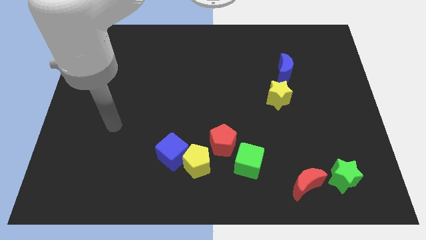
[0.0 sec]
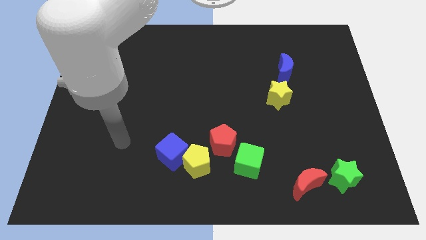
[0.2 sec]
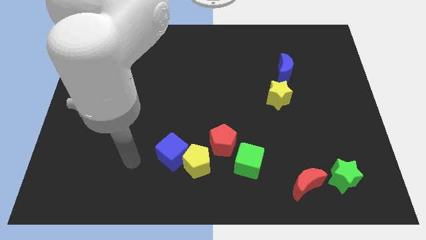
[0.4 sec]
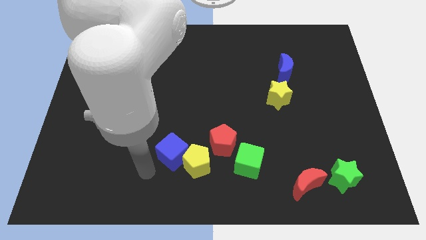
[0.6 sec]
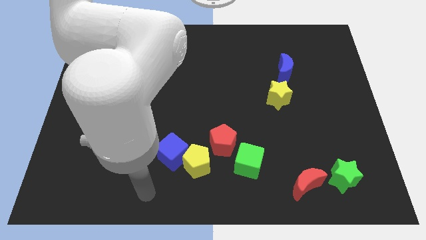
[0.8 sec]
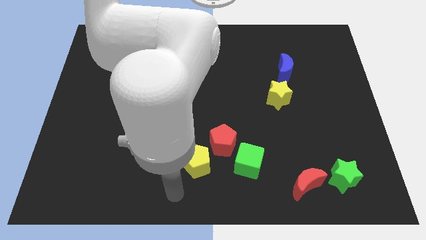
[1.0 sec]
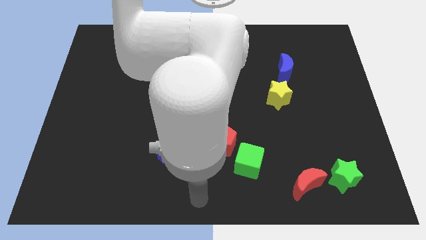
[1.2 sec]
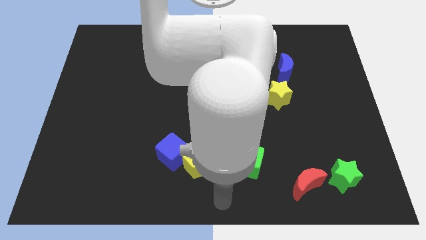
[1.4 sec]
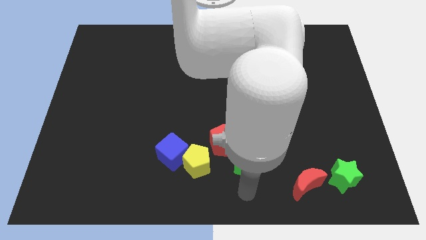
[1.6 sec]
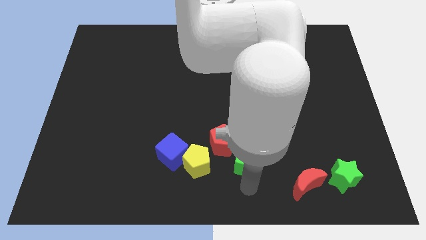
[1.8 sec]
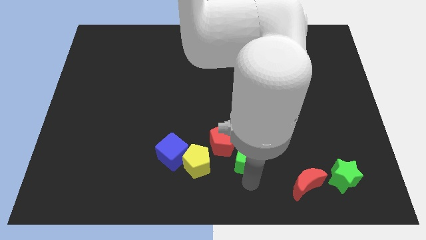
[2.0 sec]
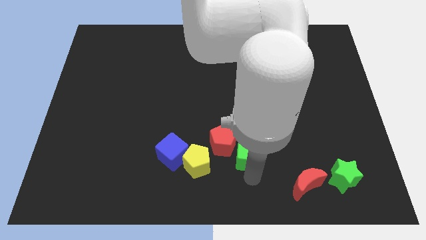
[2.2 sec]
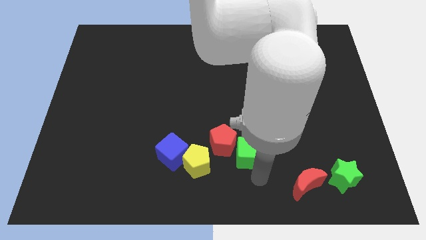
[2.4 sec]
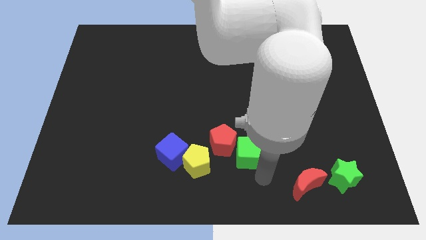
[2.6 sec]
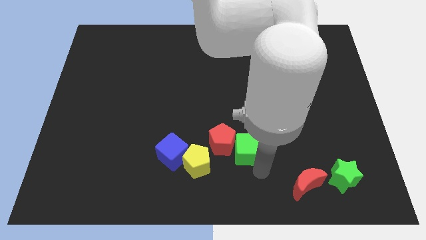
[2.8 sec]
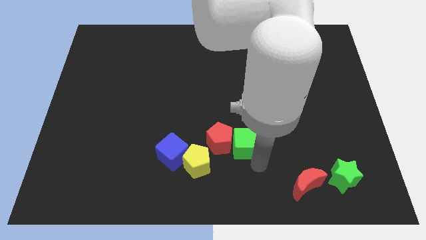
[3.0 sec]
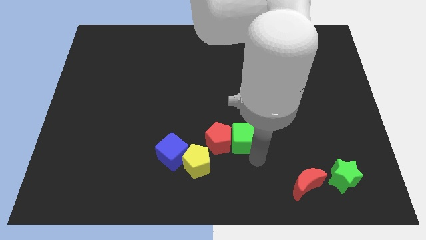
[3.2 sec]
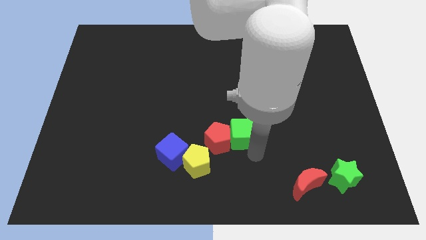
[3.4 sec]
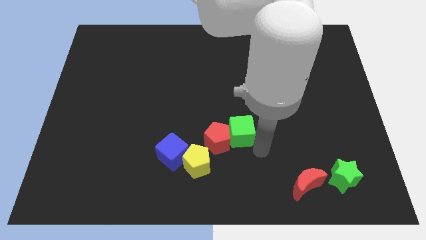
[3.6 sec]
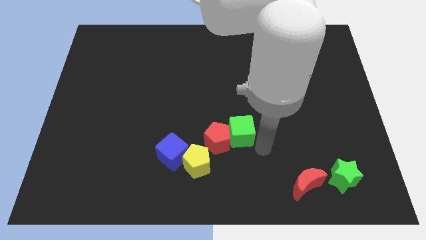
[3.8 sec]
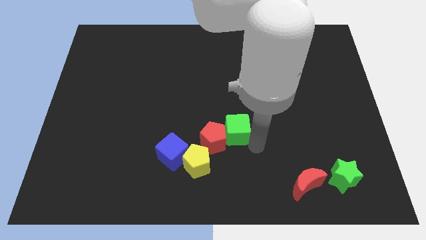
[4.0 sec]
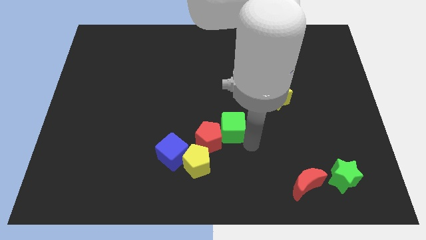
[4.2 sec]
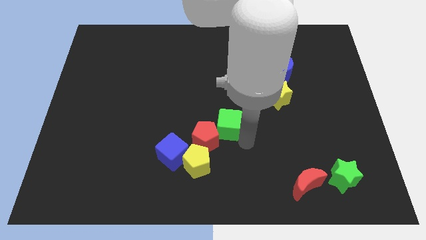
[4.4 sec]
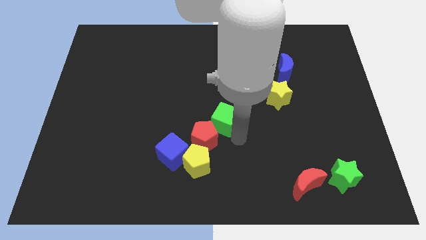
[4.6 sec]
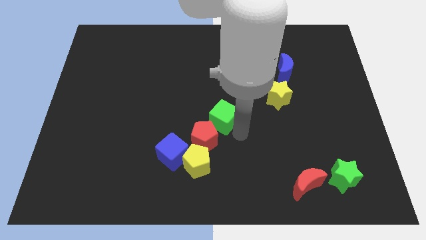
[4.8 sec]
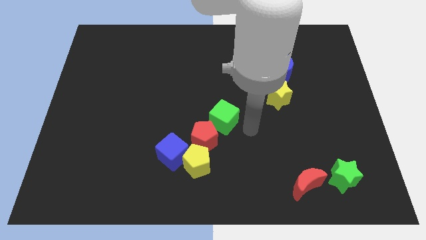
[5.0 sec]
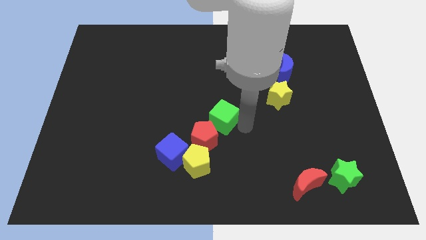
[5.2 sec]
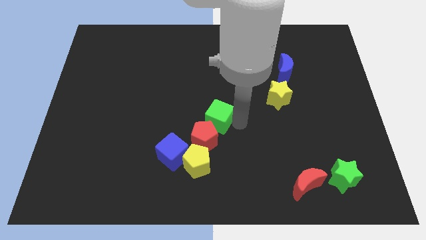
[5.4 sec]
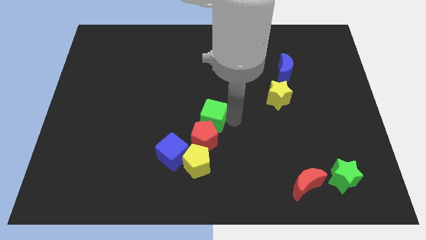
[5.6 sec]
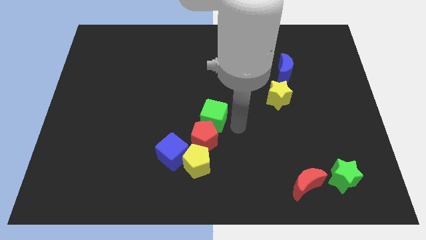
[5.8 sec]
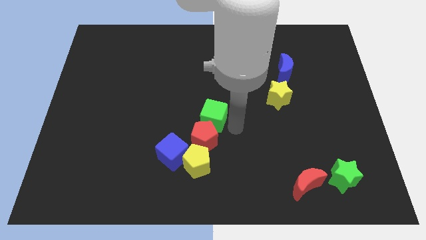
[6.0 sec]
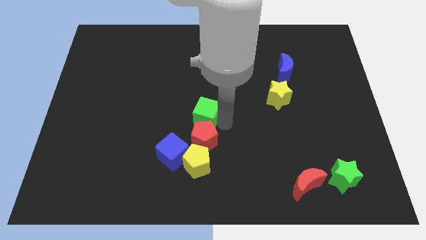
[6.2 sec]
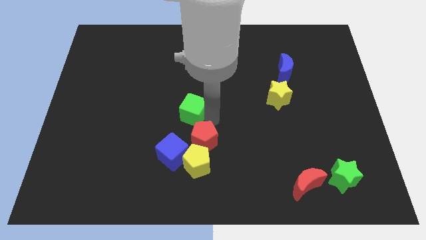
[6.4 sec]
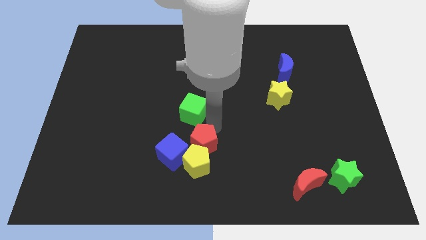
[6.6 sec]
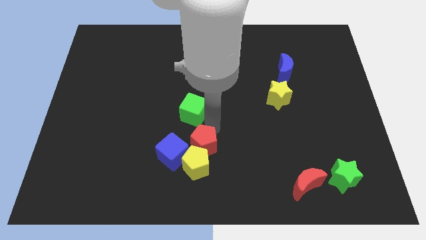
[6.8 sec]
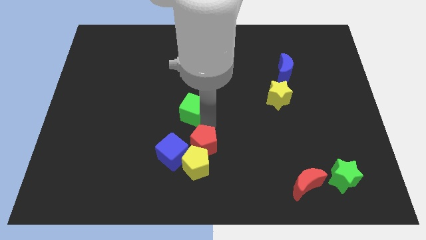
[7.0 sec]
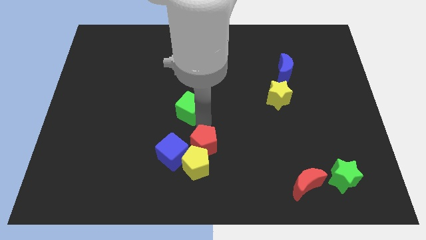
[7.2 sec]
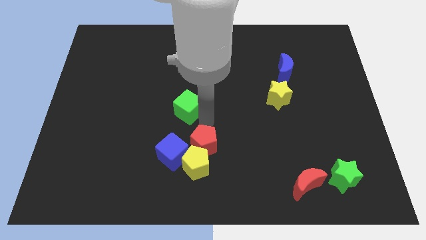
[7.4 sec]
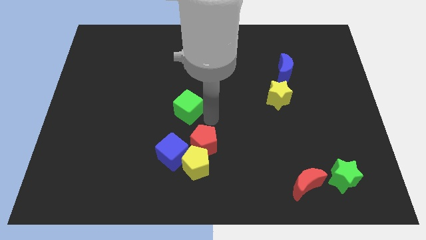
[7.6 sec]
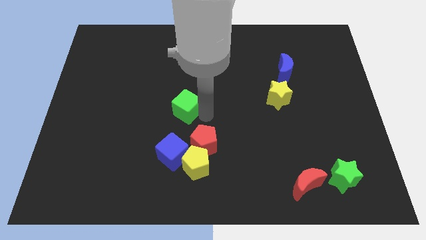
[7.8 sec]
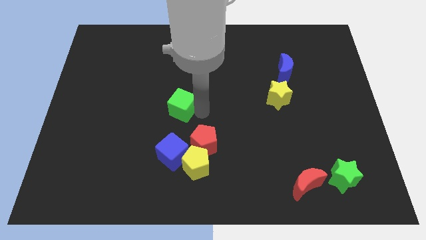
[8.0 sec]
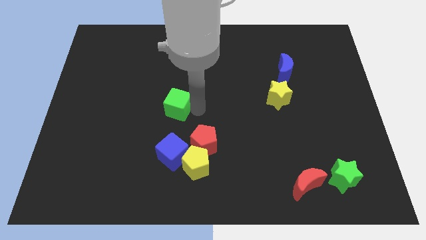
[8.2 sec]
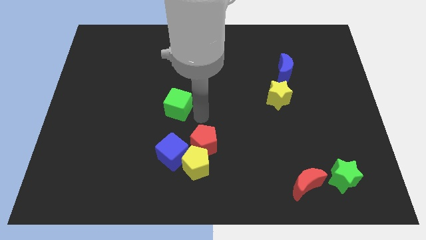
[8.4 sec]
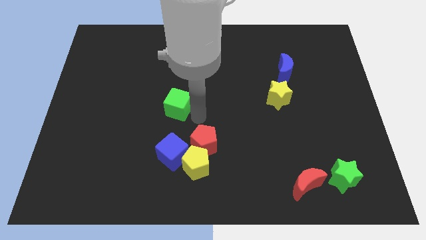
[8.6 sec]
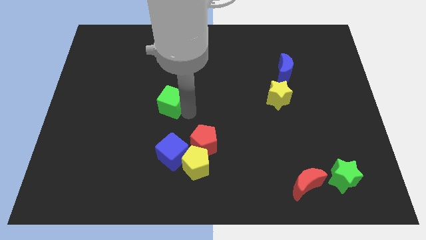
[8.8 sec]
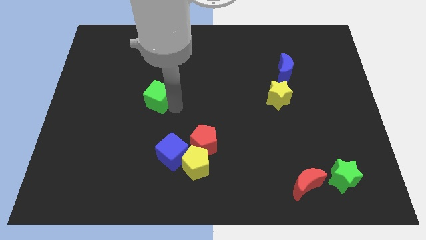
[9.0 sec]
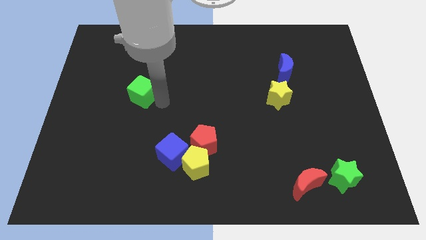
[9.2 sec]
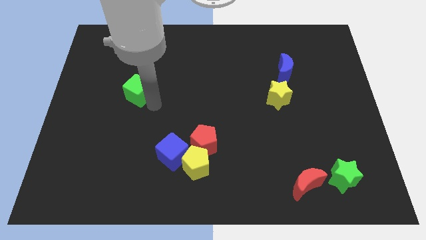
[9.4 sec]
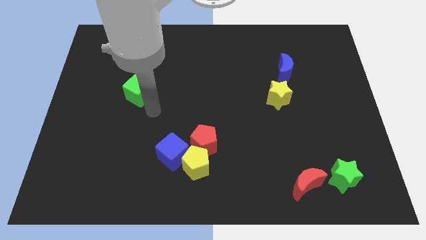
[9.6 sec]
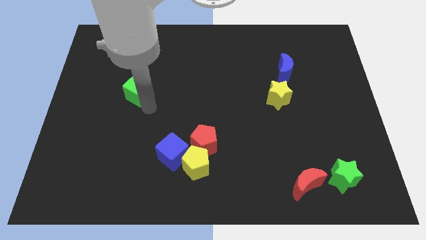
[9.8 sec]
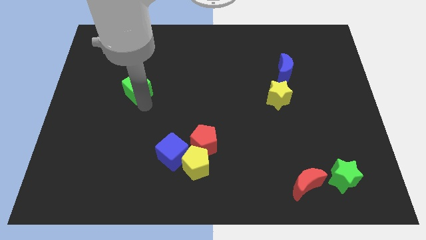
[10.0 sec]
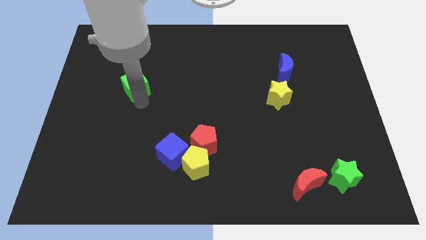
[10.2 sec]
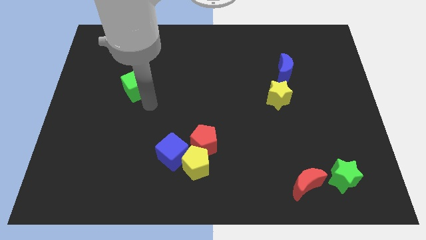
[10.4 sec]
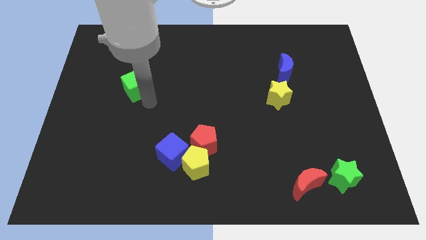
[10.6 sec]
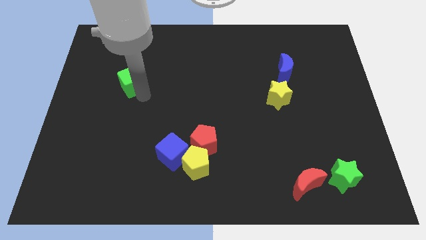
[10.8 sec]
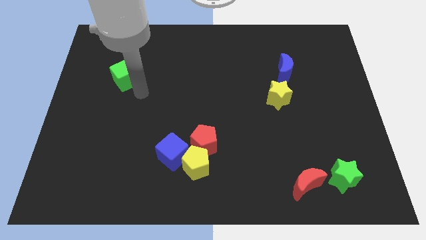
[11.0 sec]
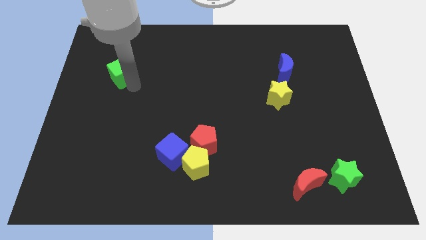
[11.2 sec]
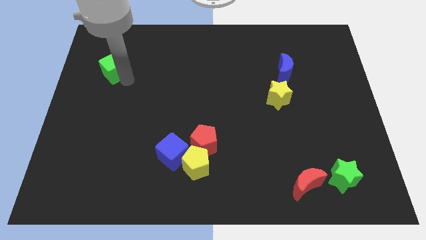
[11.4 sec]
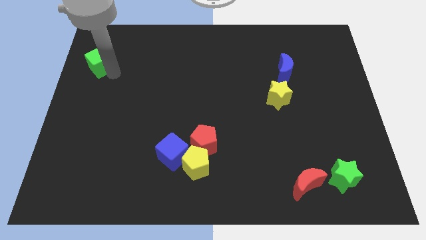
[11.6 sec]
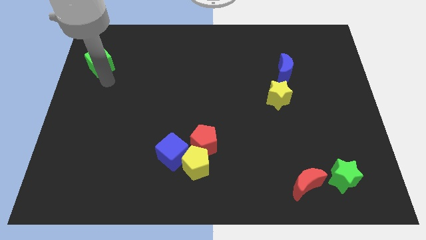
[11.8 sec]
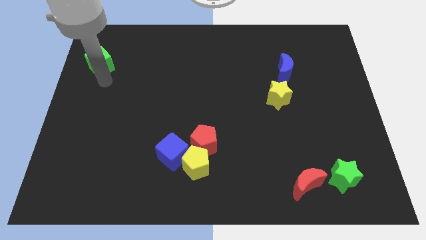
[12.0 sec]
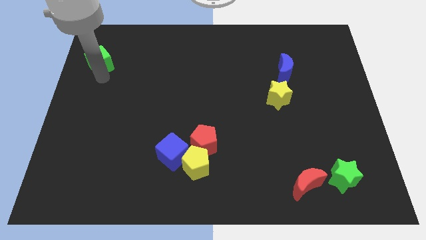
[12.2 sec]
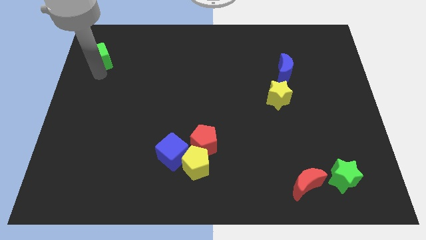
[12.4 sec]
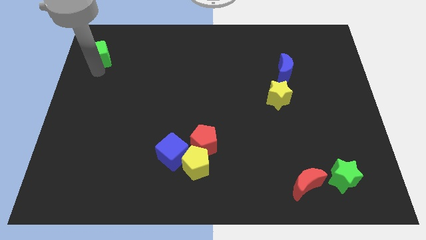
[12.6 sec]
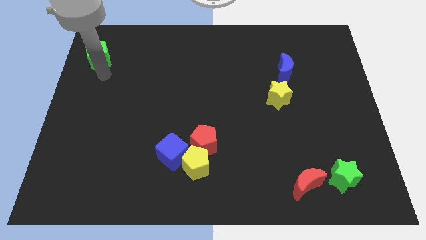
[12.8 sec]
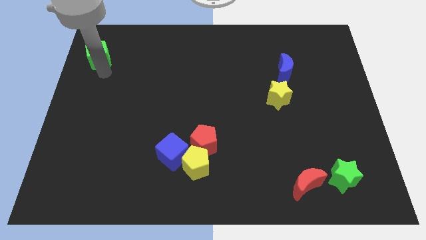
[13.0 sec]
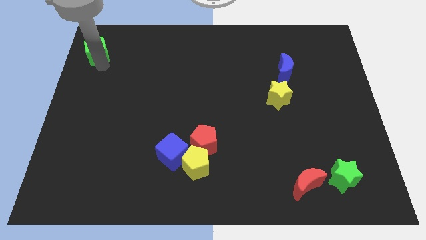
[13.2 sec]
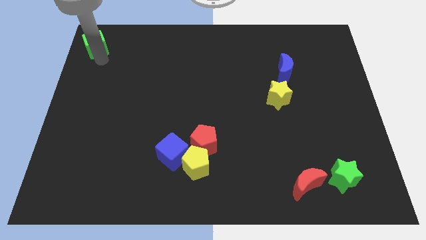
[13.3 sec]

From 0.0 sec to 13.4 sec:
put the green cube to the top left corner
